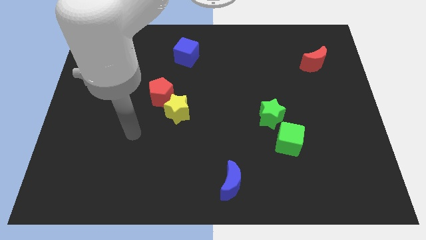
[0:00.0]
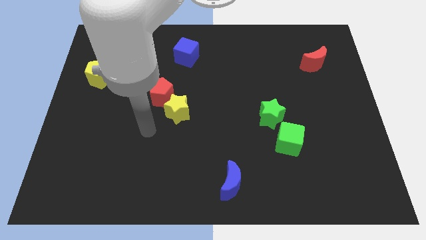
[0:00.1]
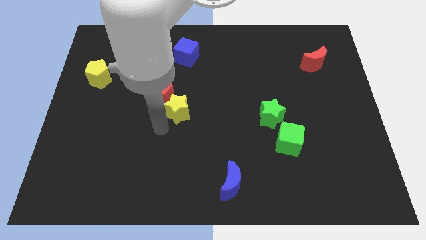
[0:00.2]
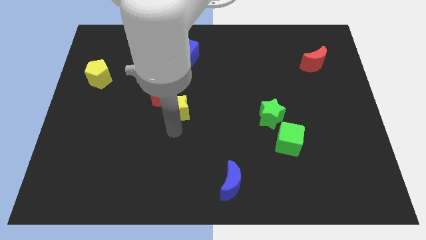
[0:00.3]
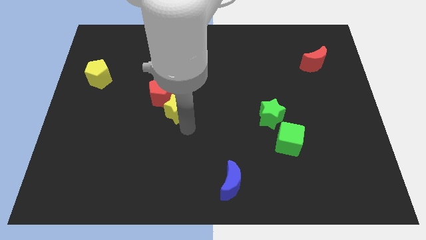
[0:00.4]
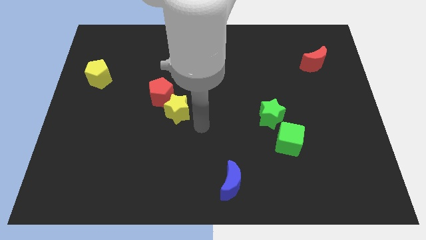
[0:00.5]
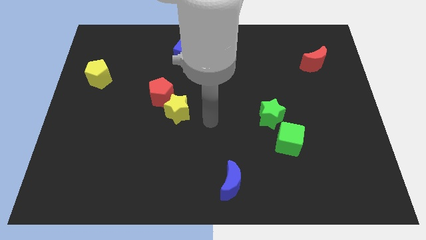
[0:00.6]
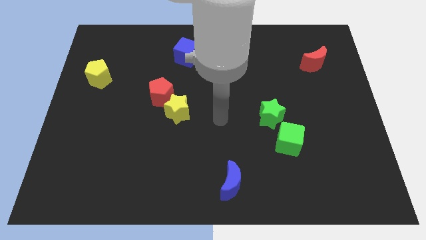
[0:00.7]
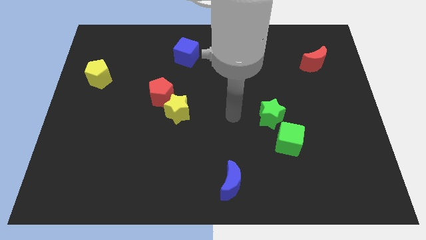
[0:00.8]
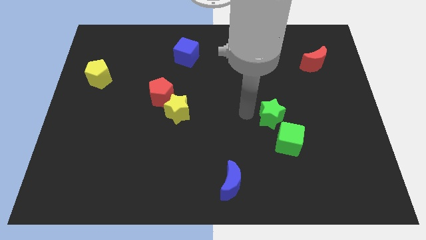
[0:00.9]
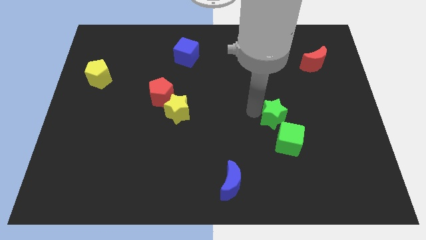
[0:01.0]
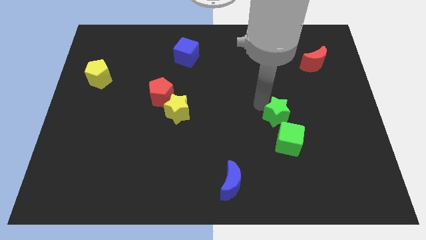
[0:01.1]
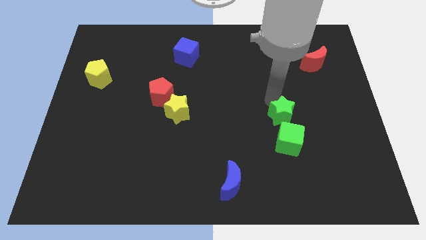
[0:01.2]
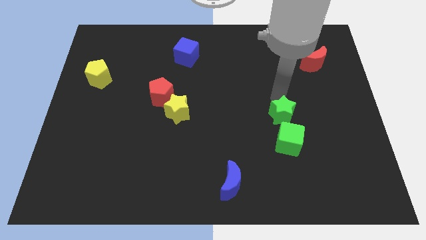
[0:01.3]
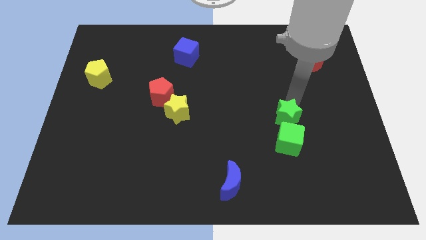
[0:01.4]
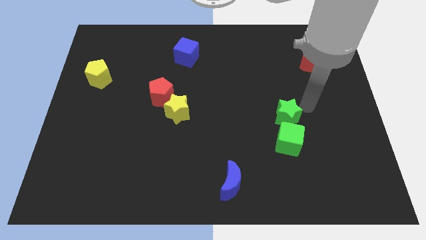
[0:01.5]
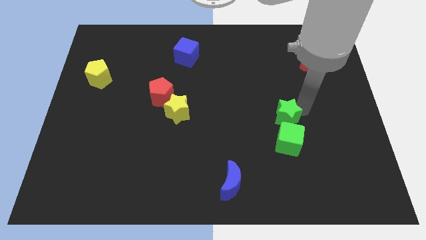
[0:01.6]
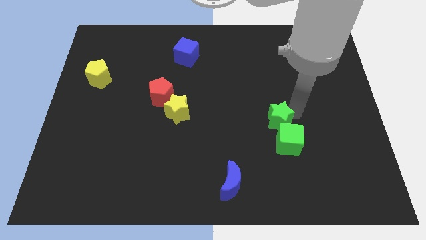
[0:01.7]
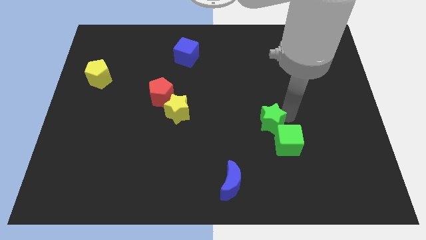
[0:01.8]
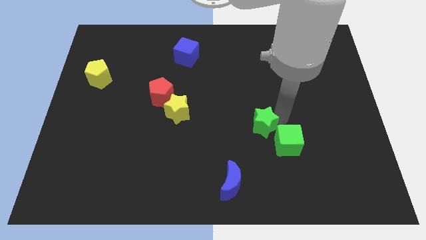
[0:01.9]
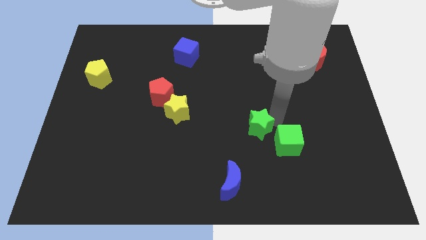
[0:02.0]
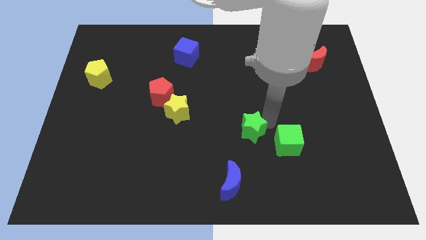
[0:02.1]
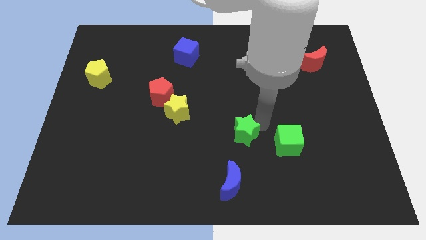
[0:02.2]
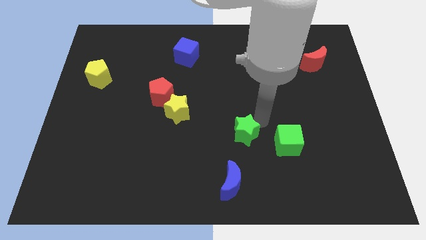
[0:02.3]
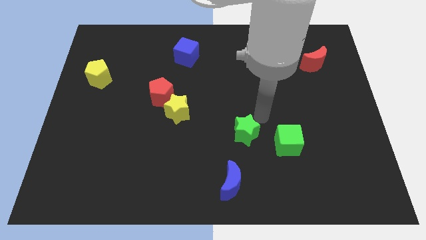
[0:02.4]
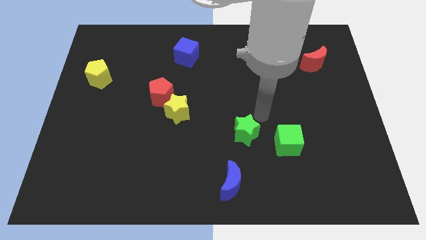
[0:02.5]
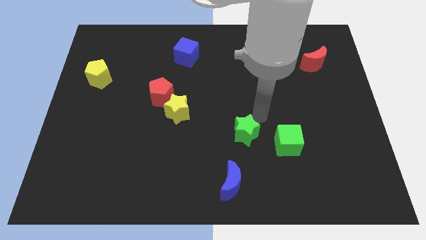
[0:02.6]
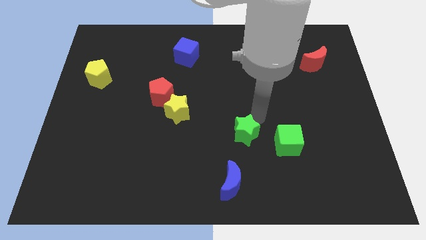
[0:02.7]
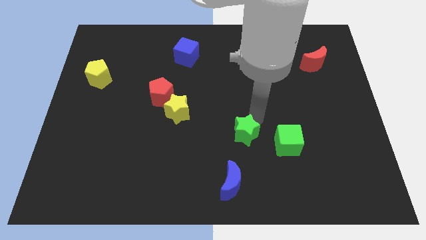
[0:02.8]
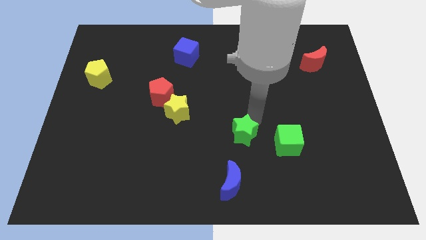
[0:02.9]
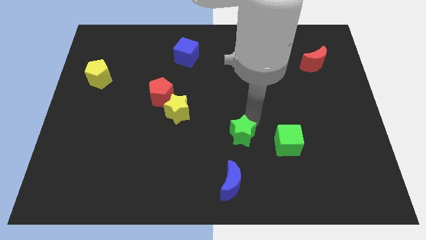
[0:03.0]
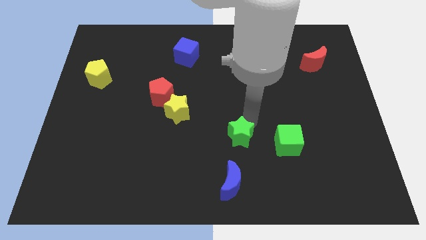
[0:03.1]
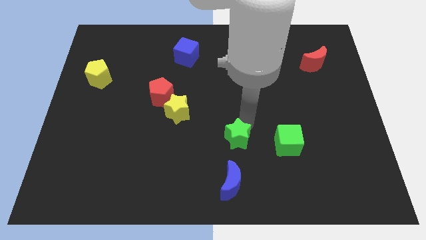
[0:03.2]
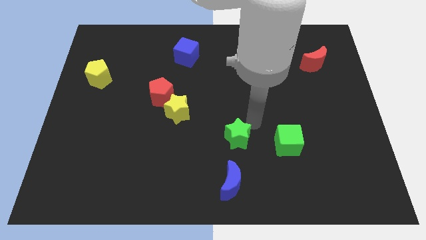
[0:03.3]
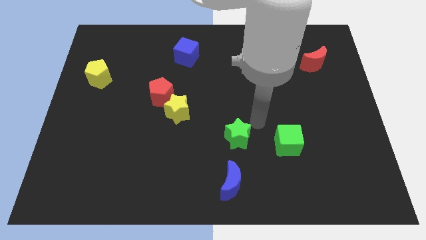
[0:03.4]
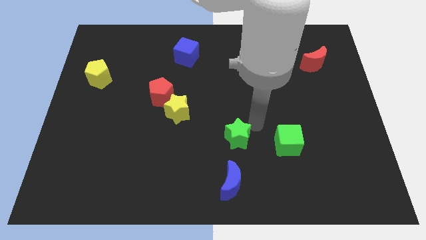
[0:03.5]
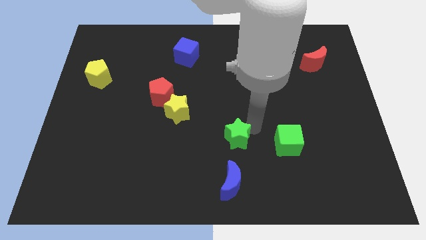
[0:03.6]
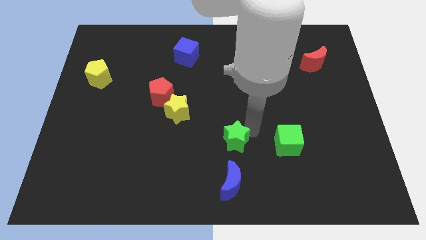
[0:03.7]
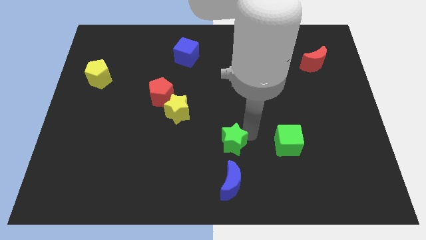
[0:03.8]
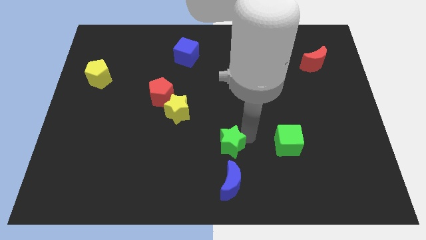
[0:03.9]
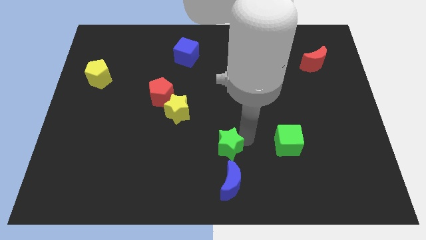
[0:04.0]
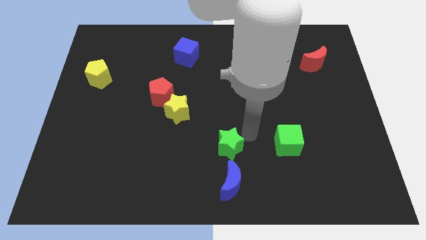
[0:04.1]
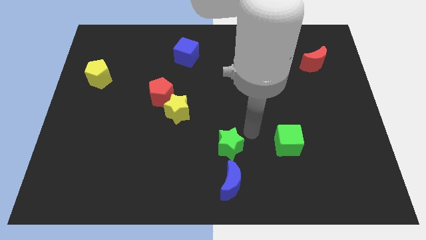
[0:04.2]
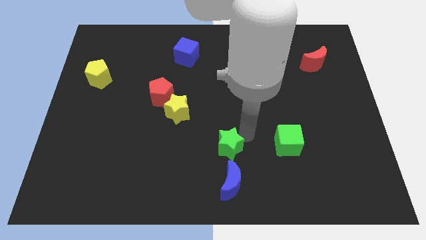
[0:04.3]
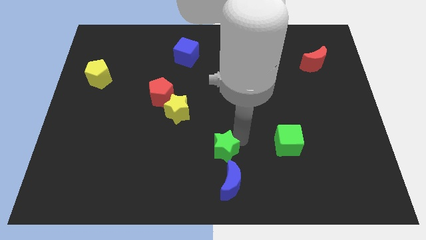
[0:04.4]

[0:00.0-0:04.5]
slide the green star to the top left side of the blue moon

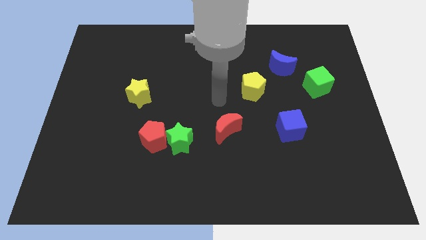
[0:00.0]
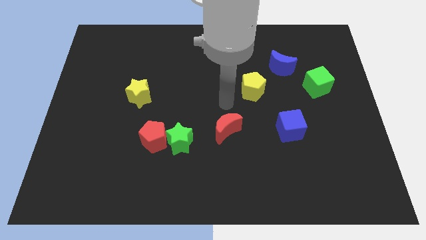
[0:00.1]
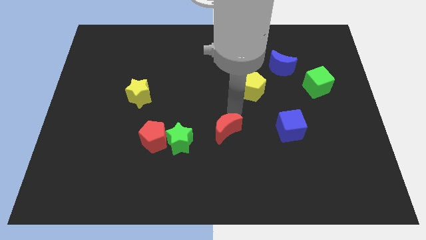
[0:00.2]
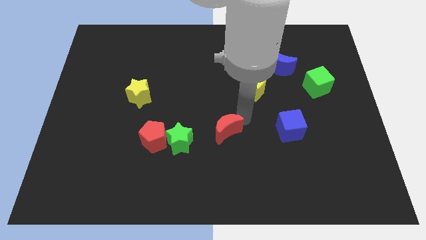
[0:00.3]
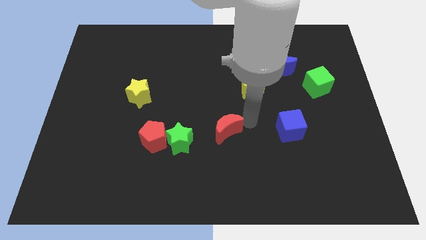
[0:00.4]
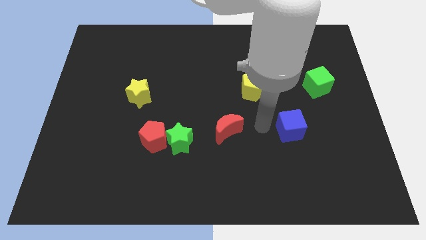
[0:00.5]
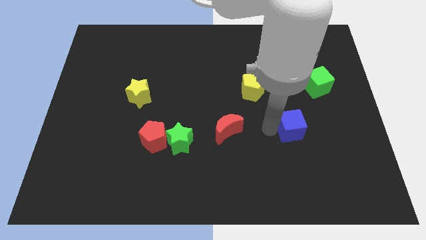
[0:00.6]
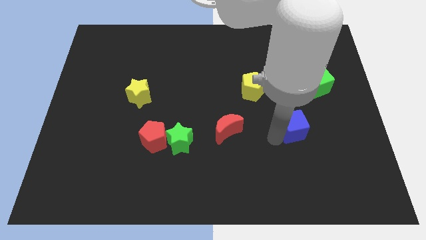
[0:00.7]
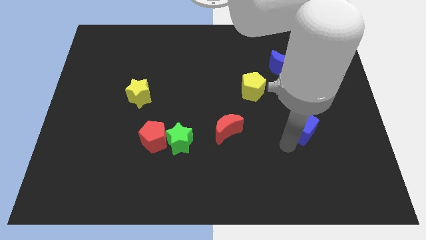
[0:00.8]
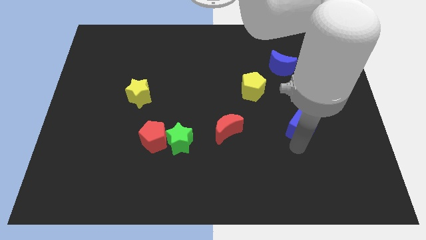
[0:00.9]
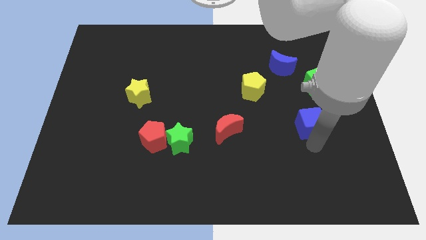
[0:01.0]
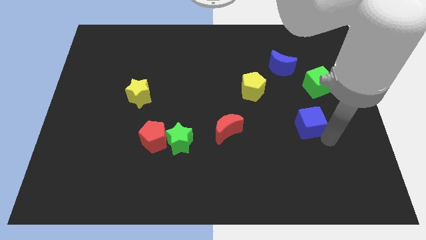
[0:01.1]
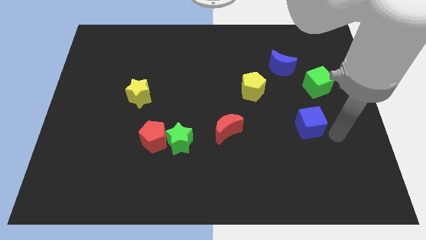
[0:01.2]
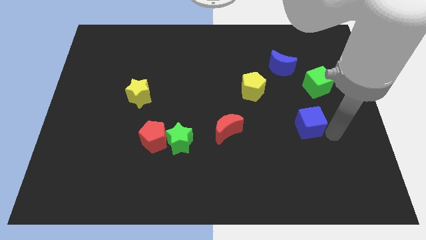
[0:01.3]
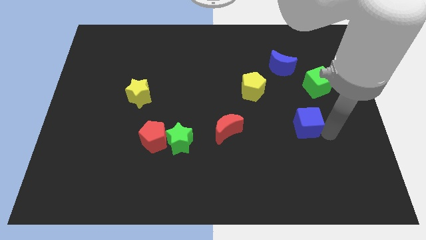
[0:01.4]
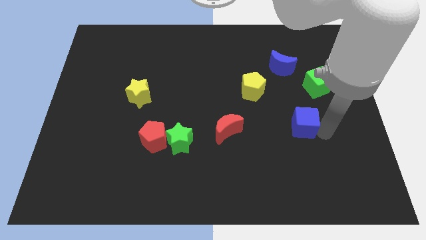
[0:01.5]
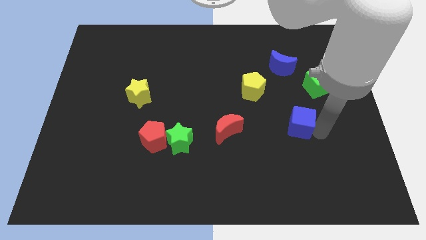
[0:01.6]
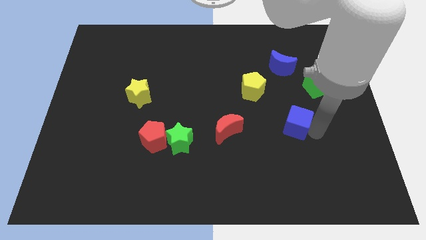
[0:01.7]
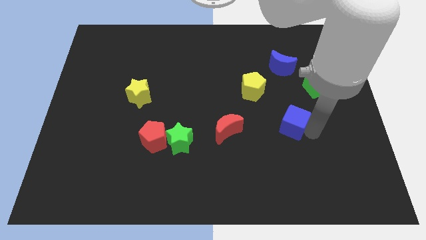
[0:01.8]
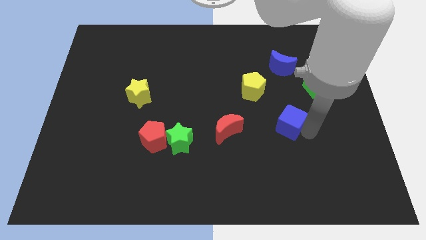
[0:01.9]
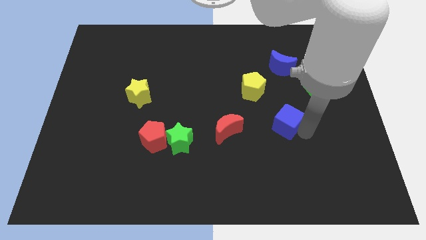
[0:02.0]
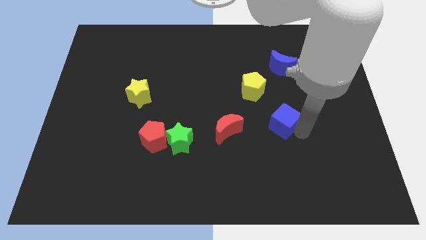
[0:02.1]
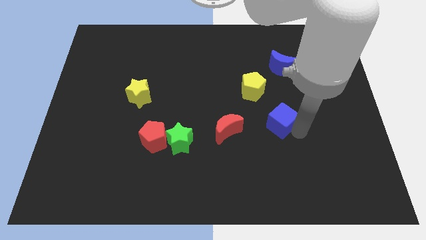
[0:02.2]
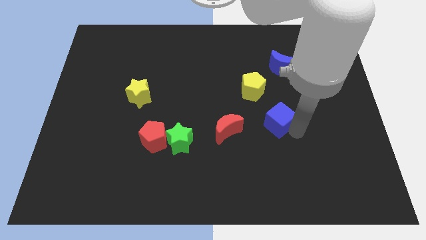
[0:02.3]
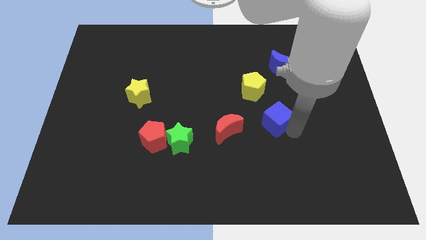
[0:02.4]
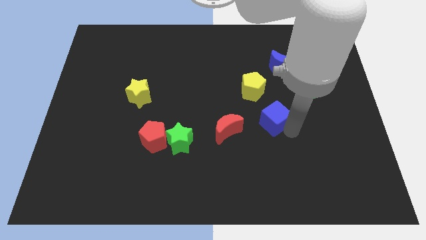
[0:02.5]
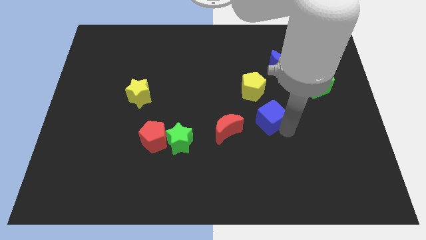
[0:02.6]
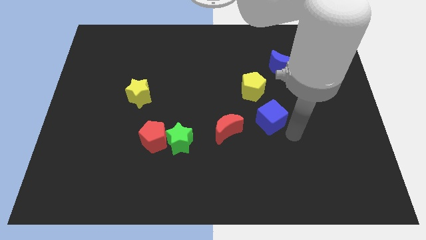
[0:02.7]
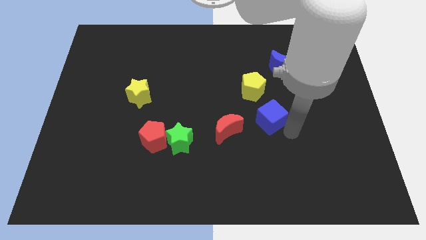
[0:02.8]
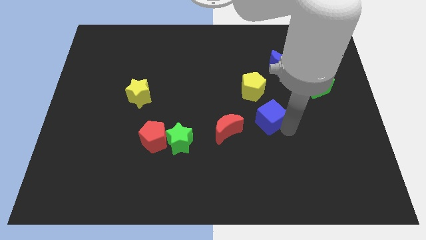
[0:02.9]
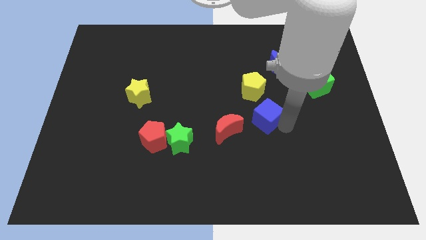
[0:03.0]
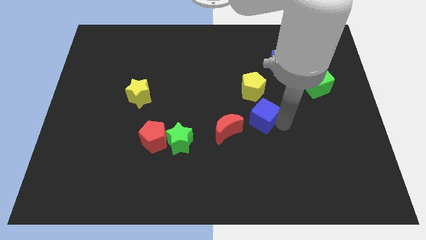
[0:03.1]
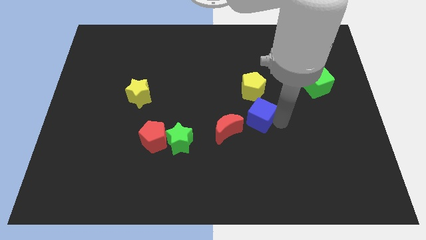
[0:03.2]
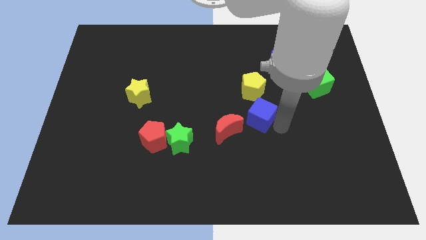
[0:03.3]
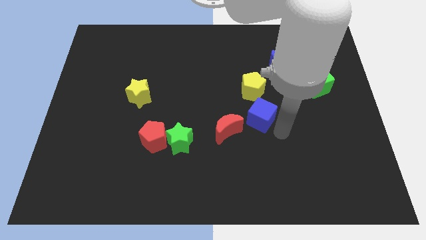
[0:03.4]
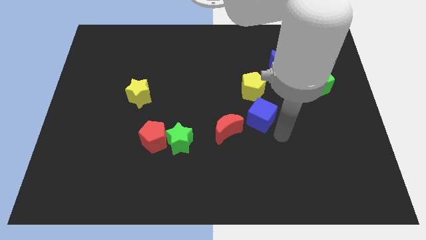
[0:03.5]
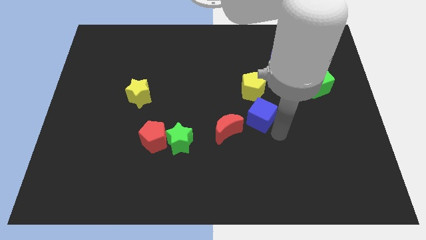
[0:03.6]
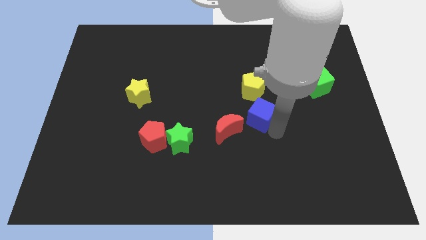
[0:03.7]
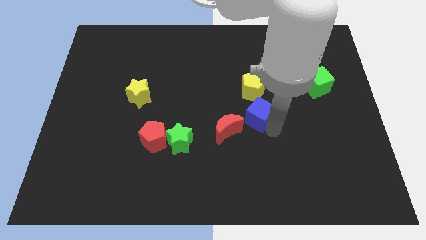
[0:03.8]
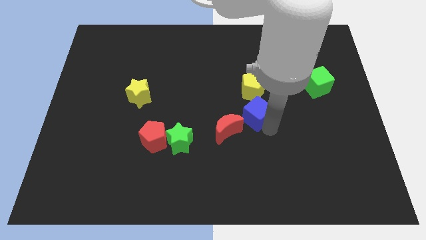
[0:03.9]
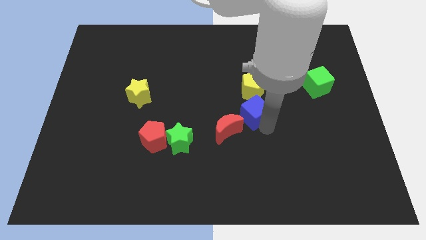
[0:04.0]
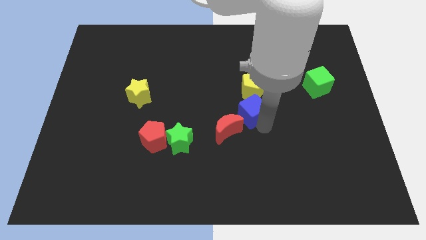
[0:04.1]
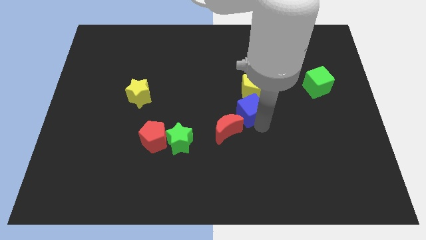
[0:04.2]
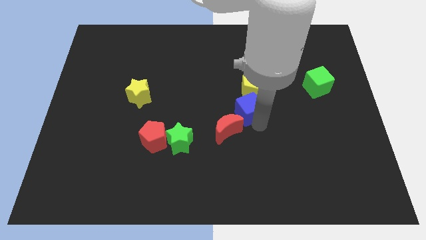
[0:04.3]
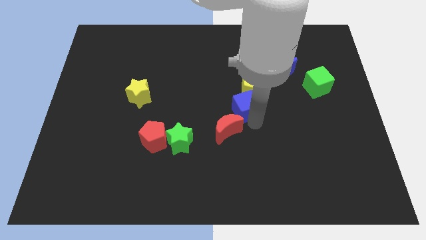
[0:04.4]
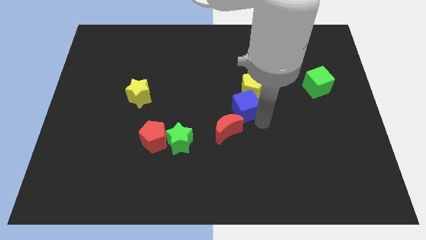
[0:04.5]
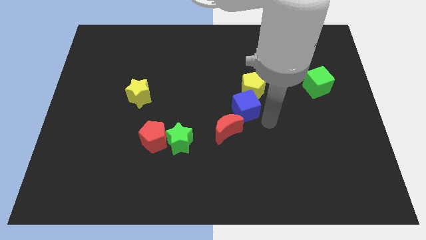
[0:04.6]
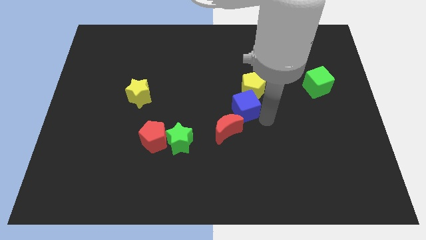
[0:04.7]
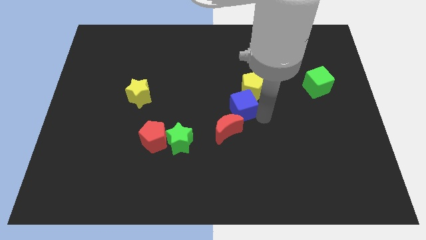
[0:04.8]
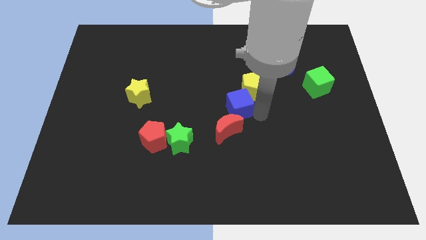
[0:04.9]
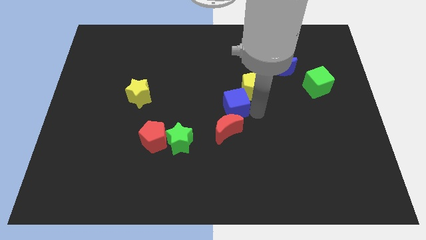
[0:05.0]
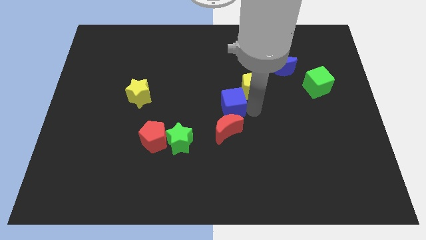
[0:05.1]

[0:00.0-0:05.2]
move the blue cube just left of the yellow pentagon
